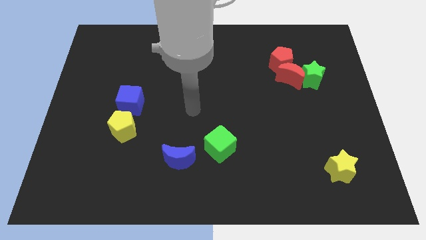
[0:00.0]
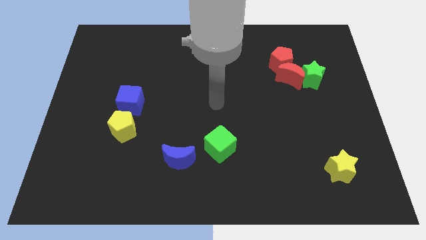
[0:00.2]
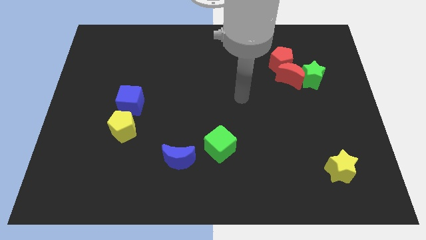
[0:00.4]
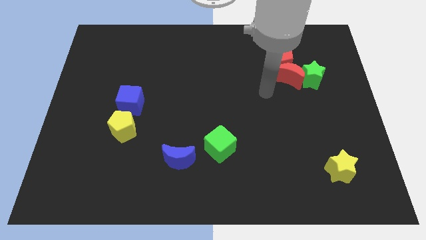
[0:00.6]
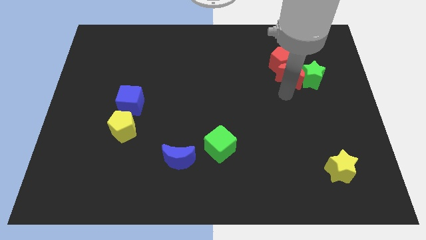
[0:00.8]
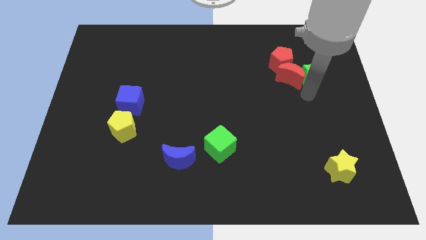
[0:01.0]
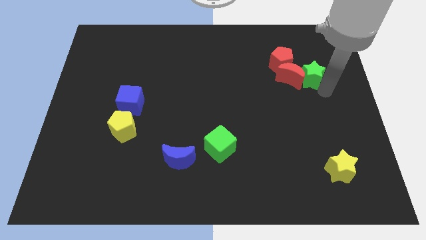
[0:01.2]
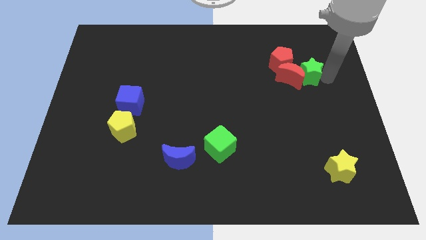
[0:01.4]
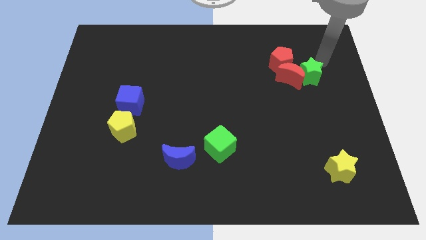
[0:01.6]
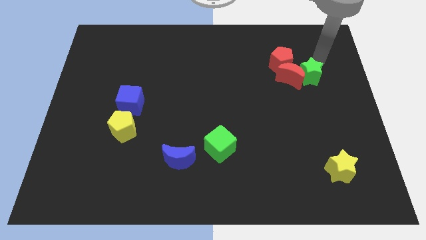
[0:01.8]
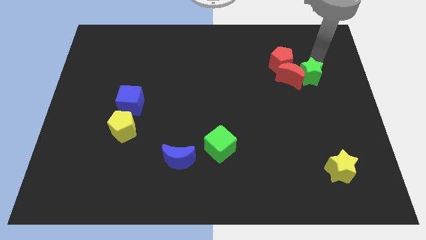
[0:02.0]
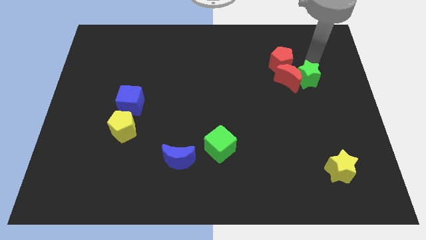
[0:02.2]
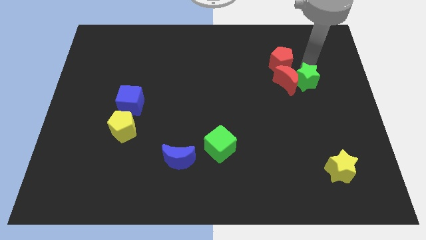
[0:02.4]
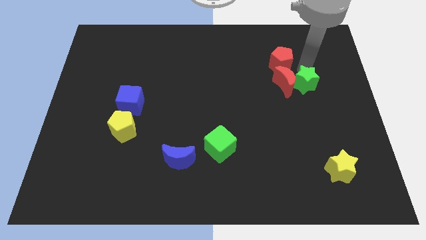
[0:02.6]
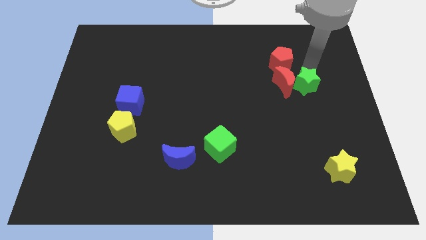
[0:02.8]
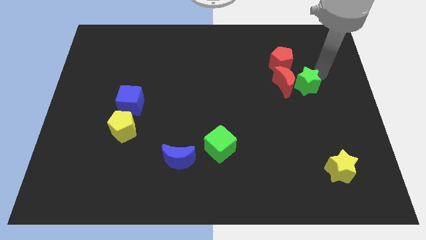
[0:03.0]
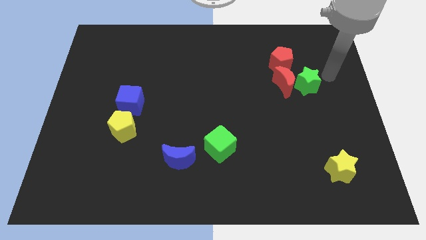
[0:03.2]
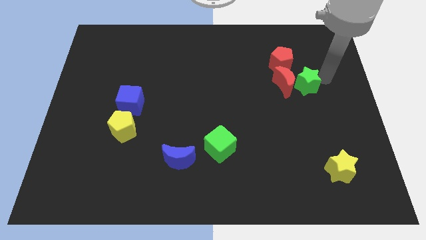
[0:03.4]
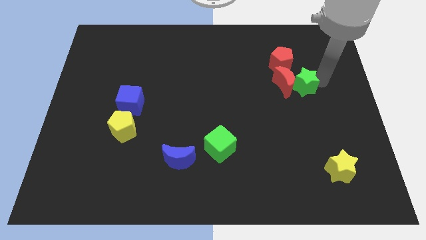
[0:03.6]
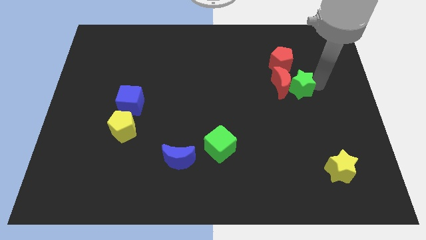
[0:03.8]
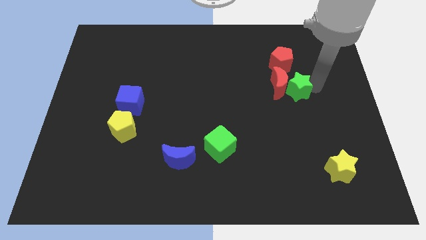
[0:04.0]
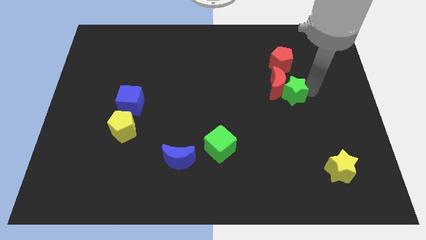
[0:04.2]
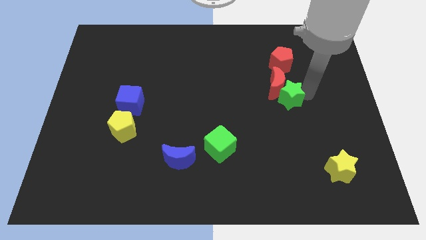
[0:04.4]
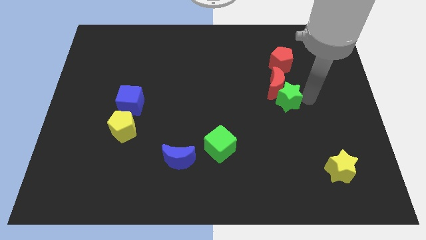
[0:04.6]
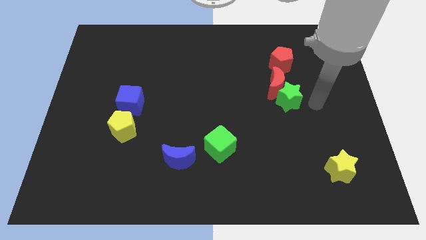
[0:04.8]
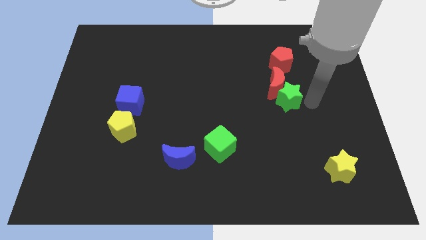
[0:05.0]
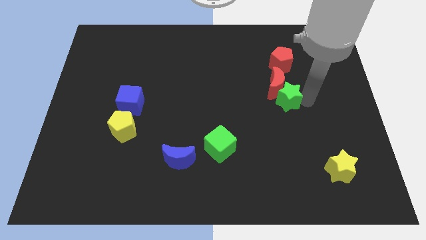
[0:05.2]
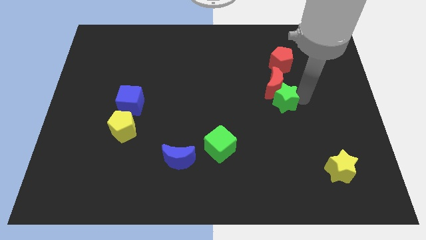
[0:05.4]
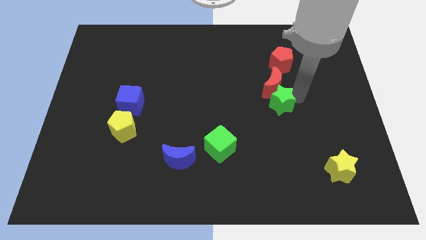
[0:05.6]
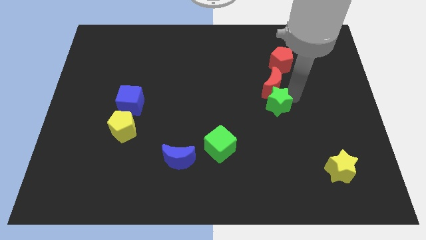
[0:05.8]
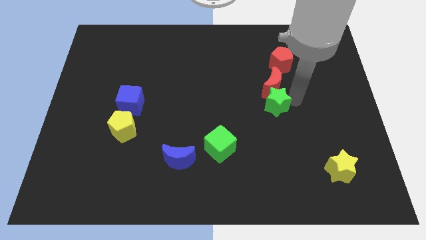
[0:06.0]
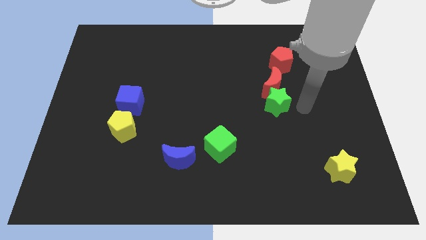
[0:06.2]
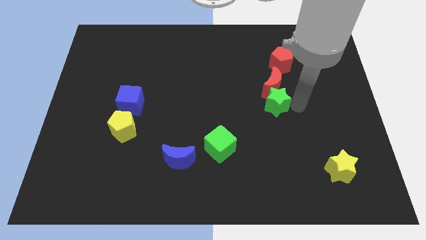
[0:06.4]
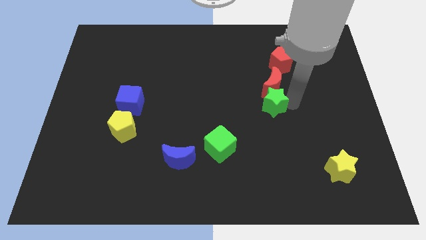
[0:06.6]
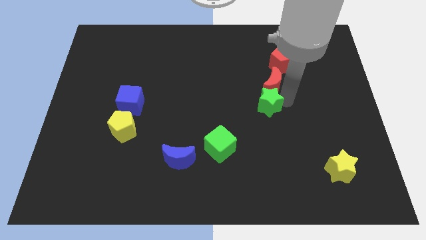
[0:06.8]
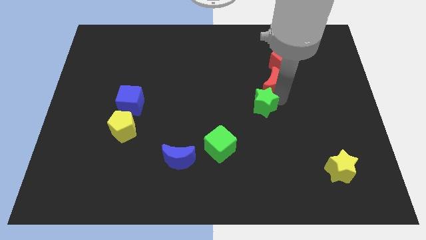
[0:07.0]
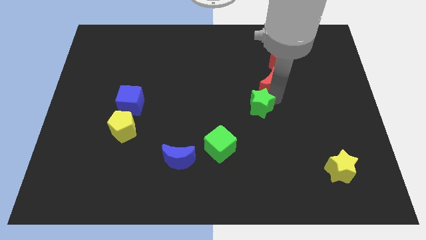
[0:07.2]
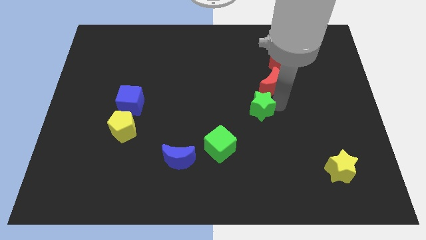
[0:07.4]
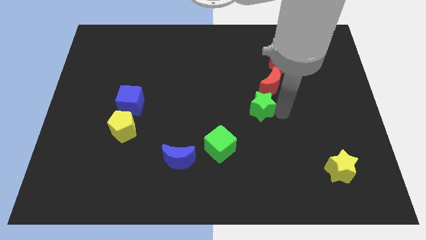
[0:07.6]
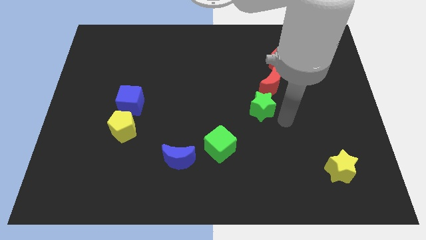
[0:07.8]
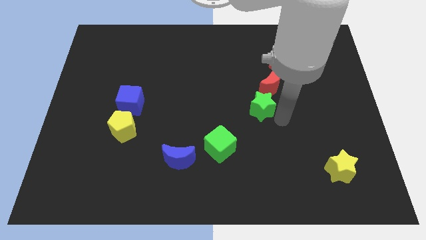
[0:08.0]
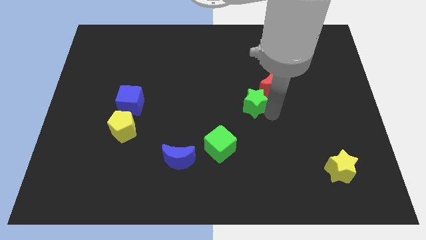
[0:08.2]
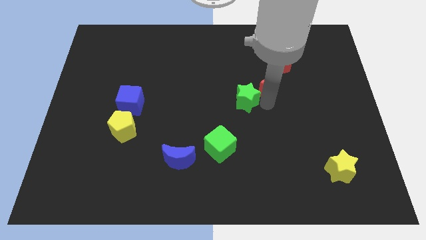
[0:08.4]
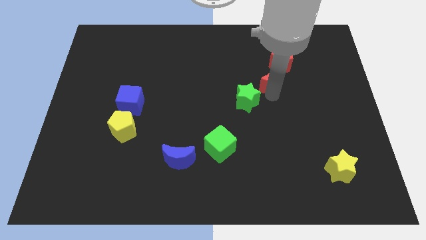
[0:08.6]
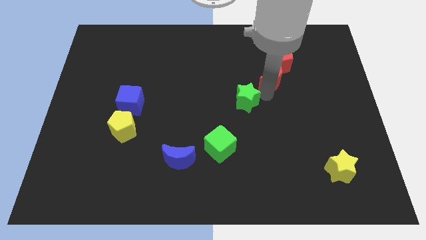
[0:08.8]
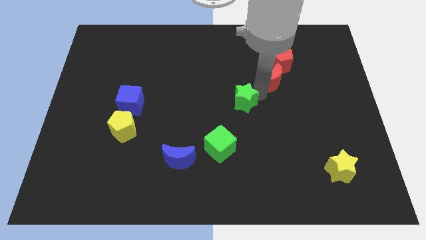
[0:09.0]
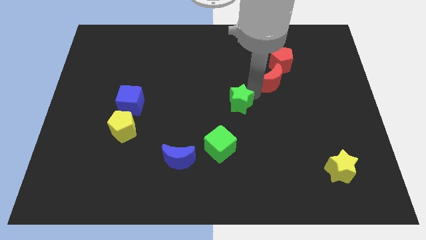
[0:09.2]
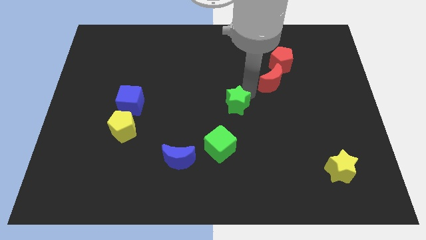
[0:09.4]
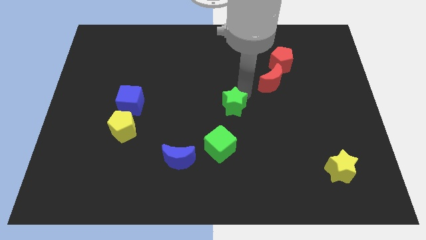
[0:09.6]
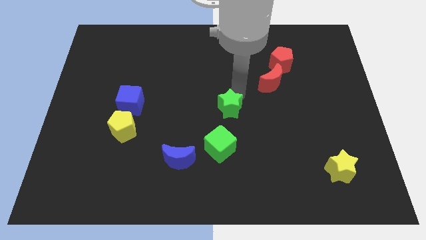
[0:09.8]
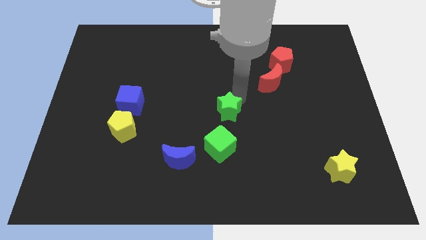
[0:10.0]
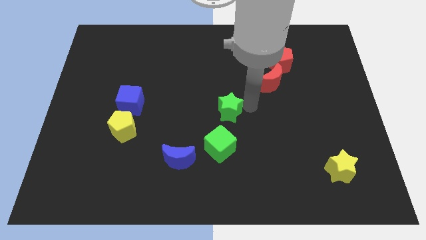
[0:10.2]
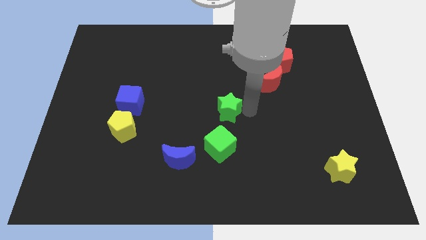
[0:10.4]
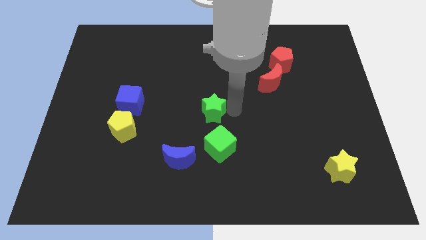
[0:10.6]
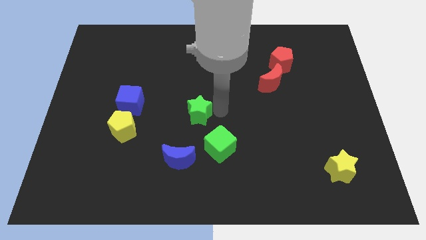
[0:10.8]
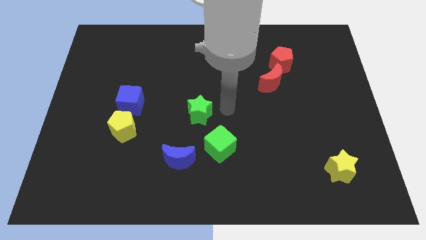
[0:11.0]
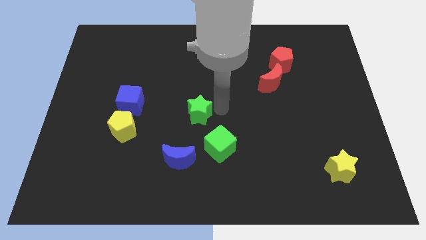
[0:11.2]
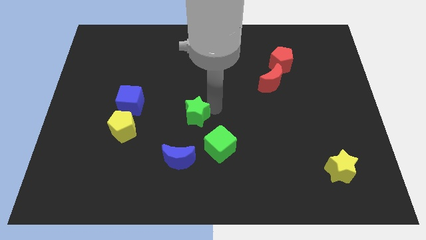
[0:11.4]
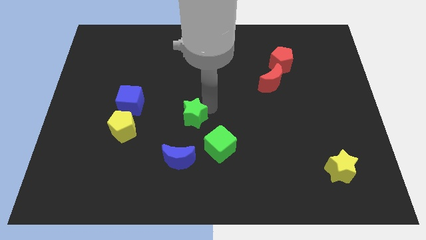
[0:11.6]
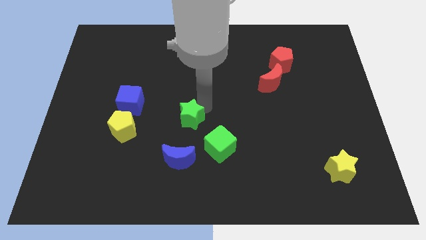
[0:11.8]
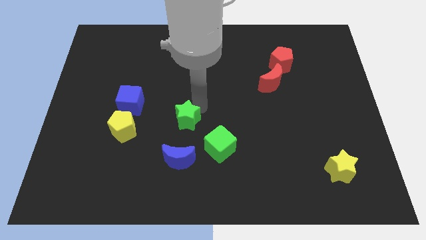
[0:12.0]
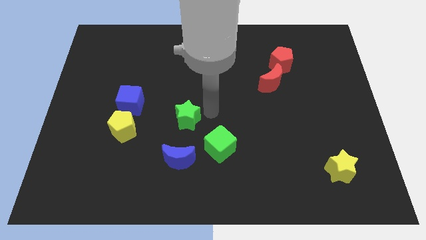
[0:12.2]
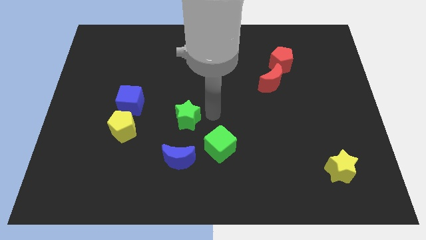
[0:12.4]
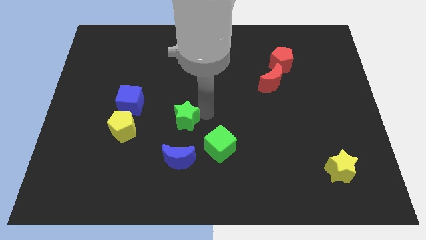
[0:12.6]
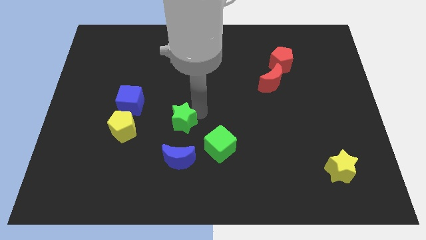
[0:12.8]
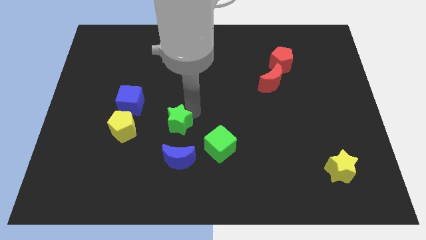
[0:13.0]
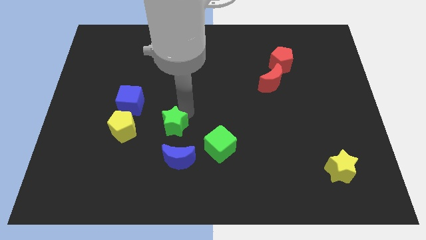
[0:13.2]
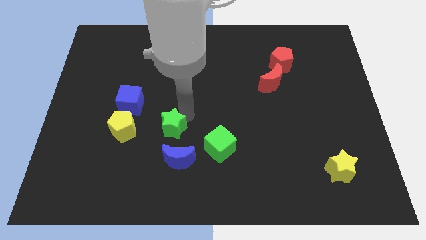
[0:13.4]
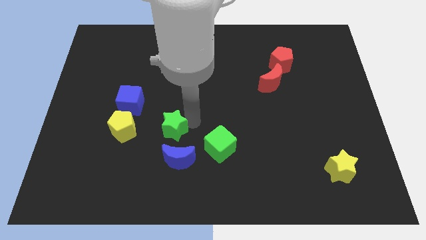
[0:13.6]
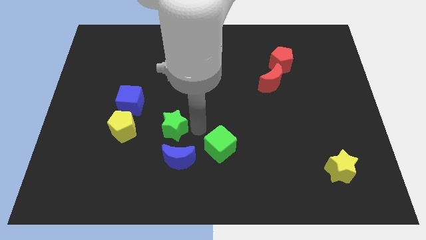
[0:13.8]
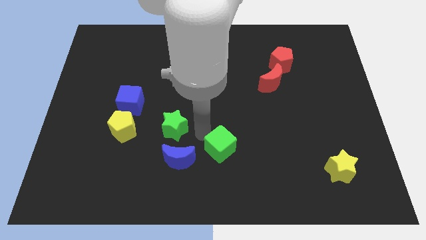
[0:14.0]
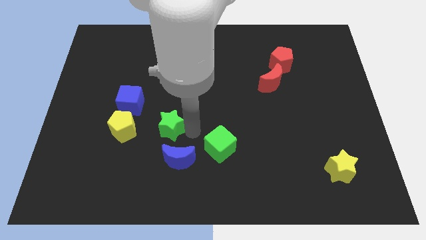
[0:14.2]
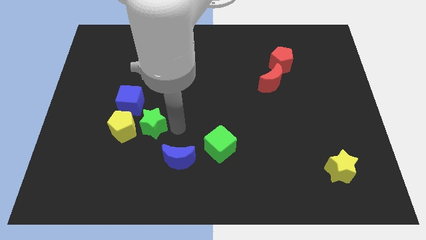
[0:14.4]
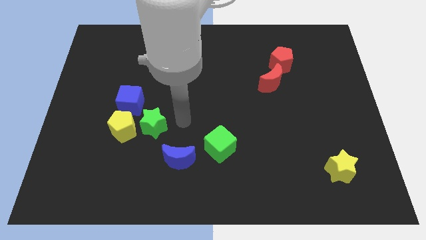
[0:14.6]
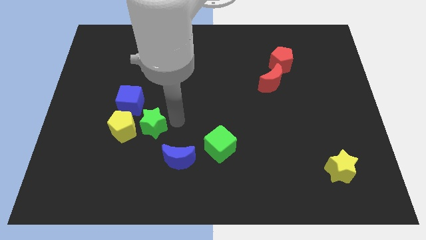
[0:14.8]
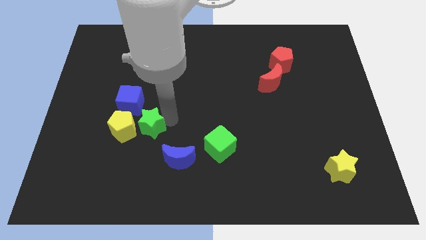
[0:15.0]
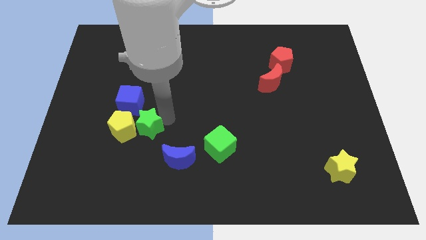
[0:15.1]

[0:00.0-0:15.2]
move the green star to the yellow pentagon
